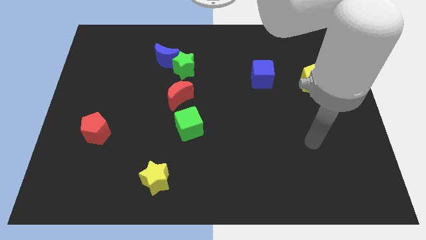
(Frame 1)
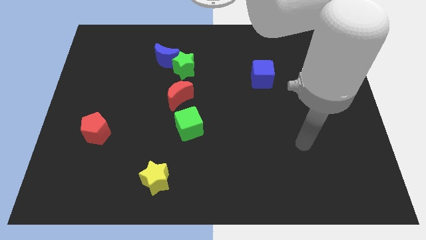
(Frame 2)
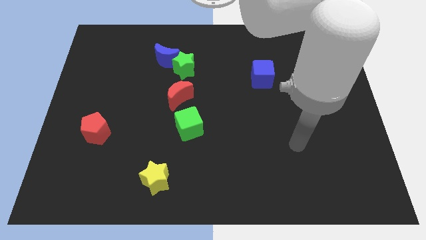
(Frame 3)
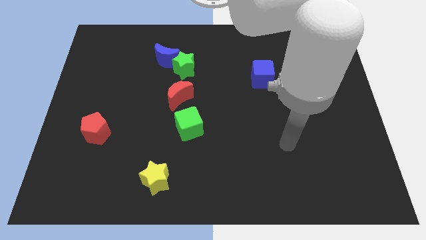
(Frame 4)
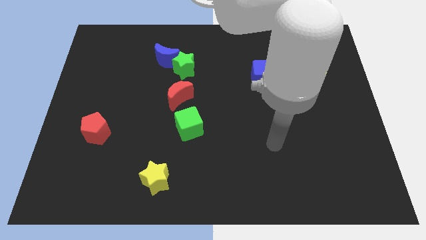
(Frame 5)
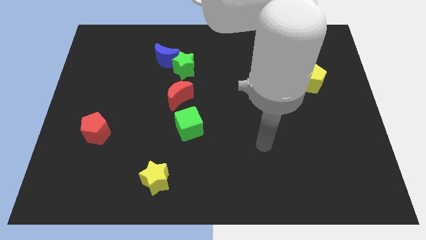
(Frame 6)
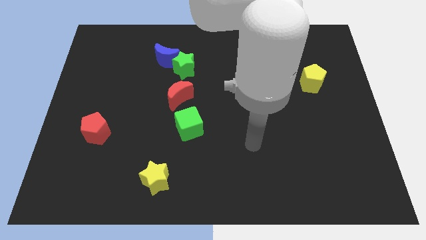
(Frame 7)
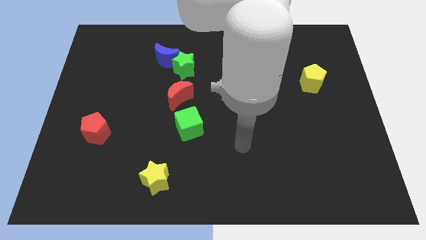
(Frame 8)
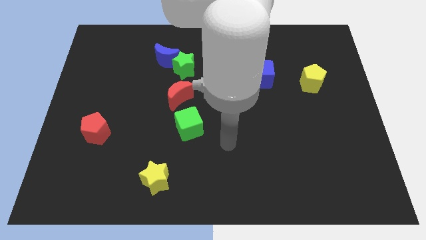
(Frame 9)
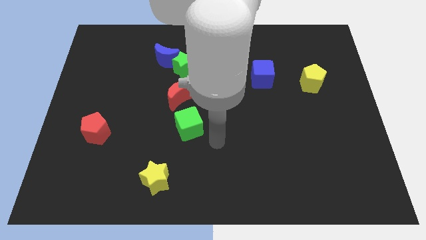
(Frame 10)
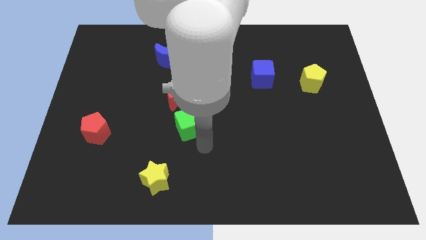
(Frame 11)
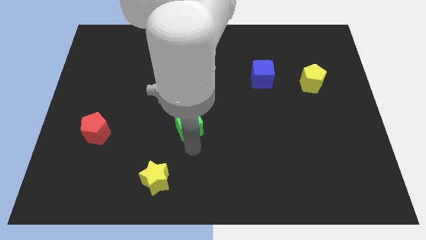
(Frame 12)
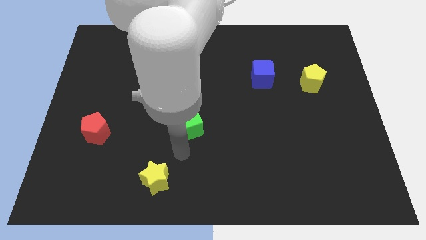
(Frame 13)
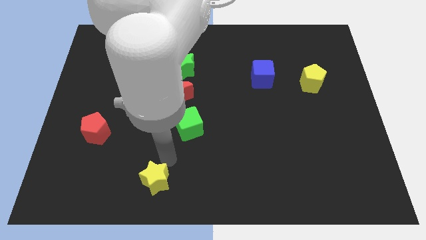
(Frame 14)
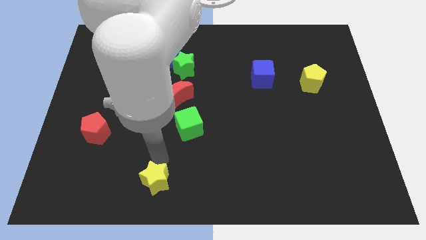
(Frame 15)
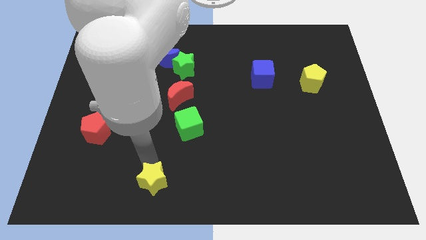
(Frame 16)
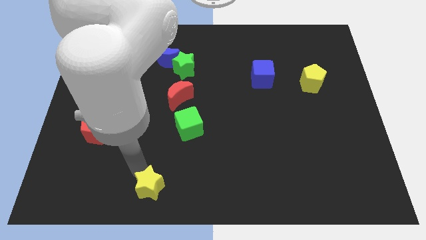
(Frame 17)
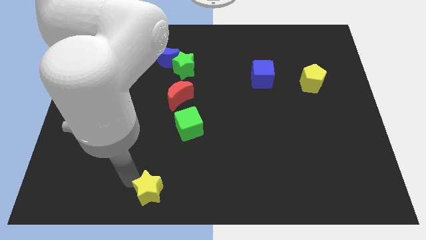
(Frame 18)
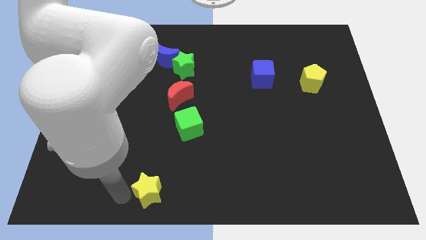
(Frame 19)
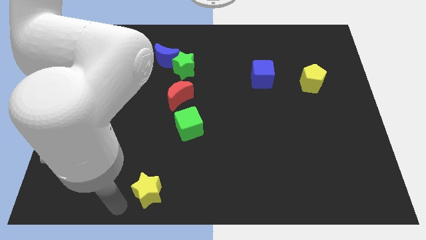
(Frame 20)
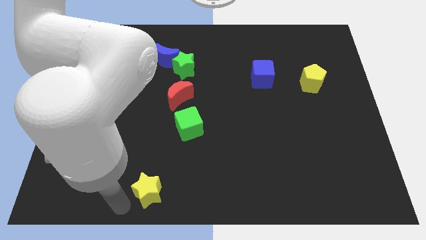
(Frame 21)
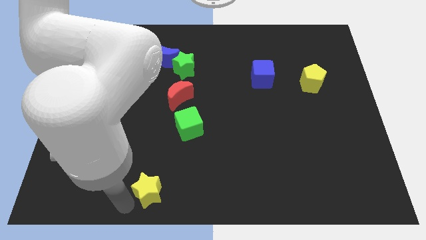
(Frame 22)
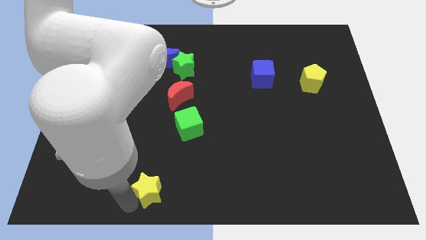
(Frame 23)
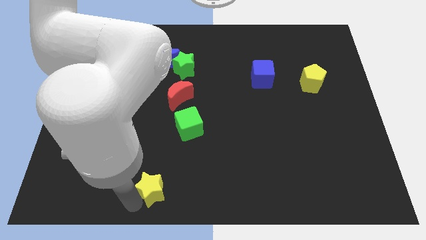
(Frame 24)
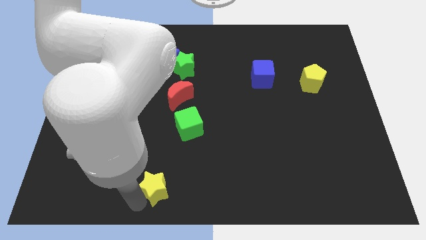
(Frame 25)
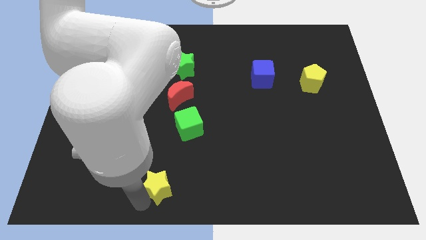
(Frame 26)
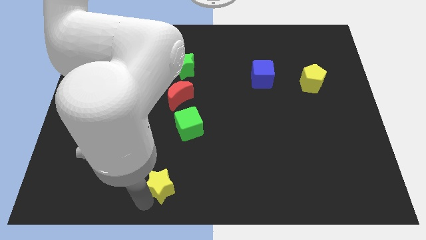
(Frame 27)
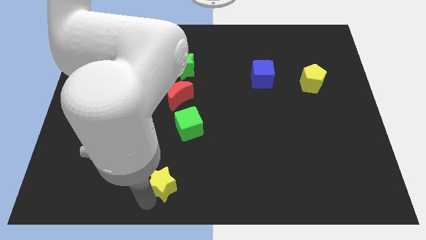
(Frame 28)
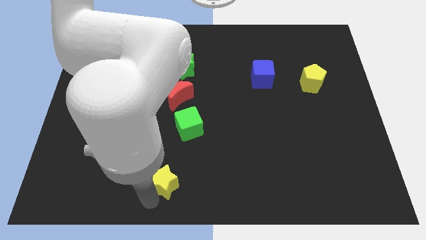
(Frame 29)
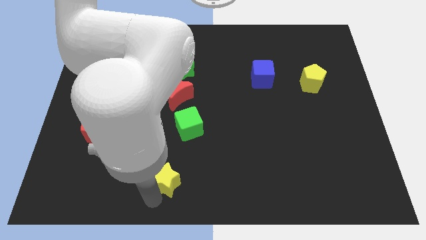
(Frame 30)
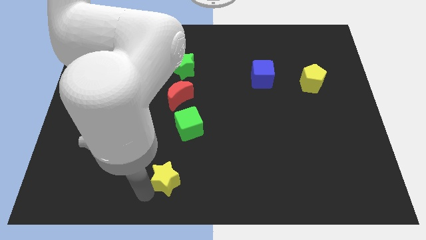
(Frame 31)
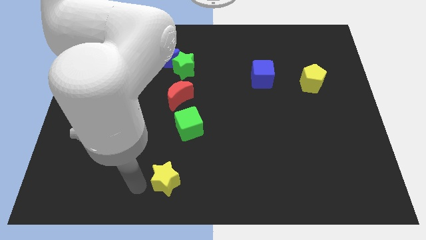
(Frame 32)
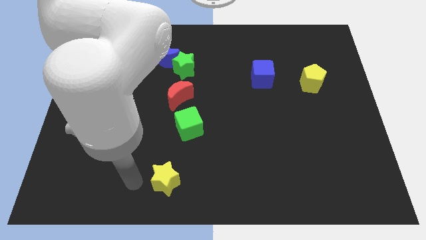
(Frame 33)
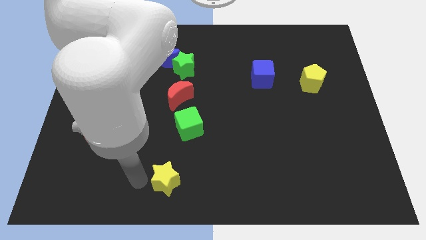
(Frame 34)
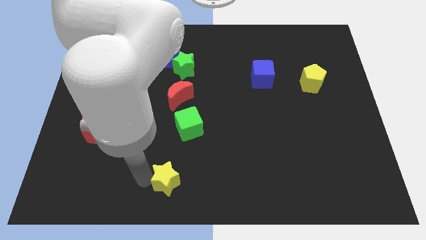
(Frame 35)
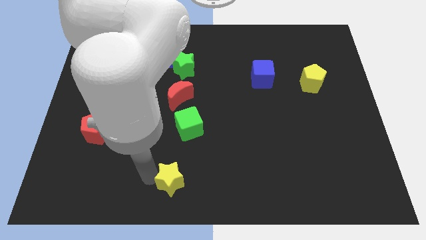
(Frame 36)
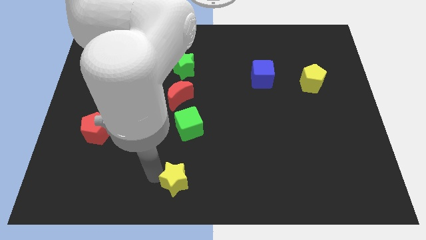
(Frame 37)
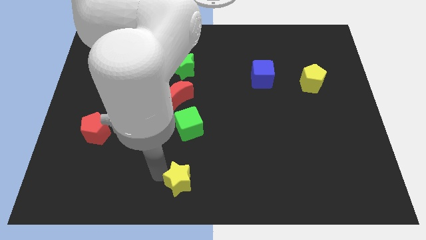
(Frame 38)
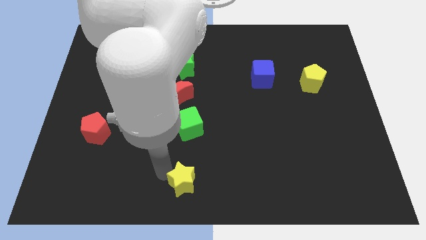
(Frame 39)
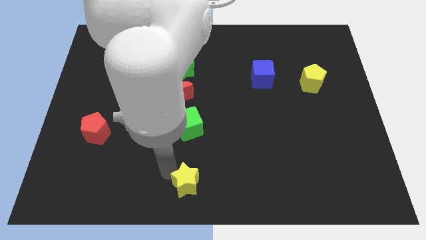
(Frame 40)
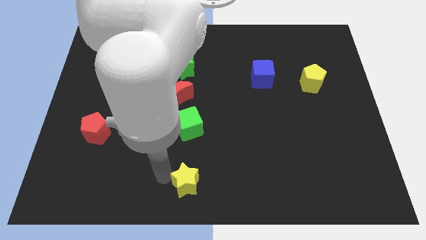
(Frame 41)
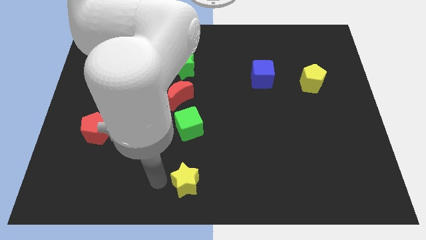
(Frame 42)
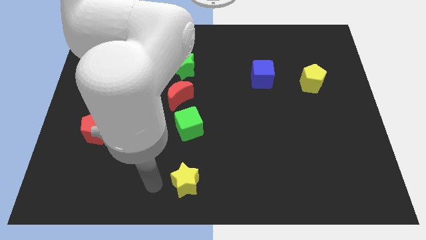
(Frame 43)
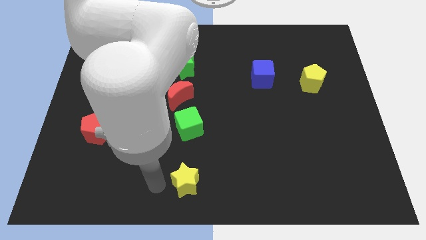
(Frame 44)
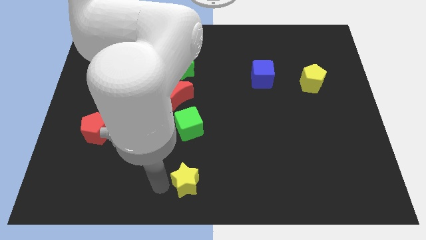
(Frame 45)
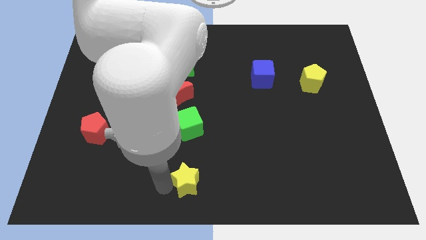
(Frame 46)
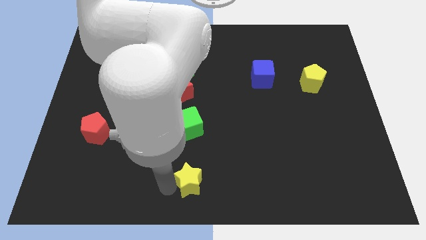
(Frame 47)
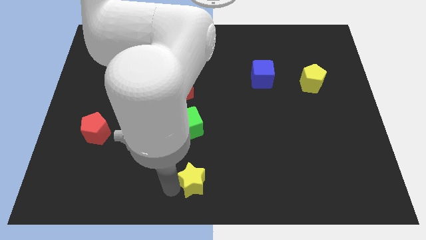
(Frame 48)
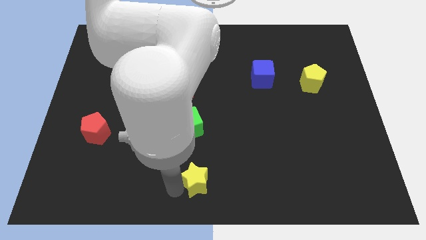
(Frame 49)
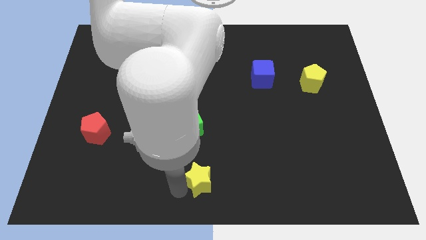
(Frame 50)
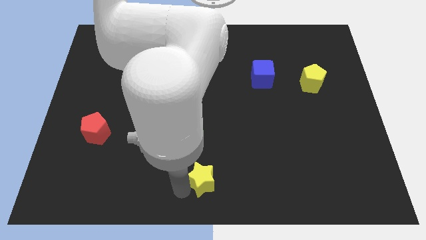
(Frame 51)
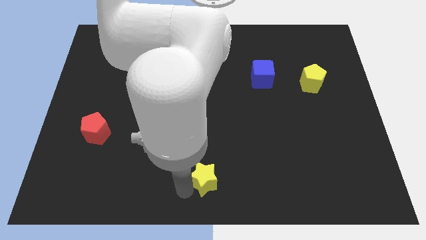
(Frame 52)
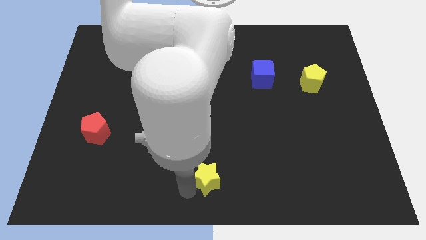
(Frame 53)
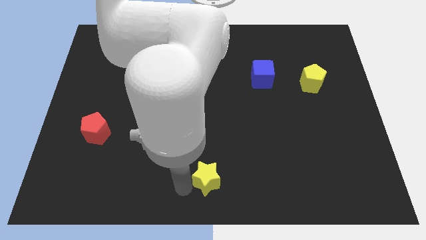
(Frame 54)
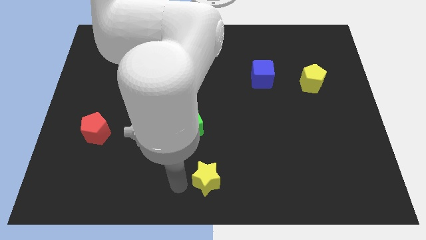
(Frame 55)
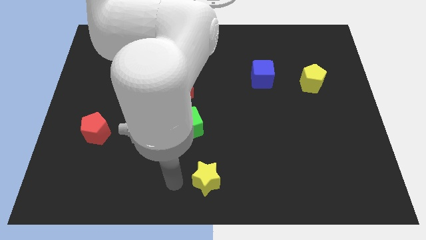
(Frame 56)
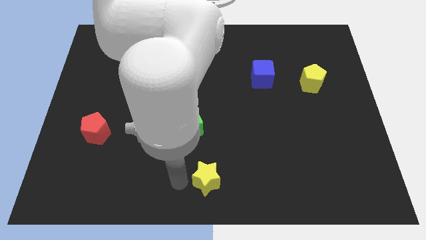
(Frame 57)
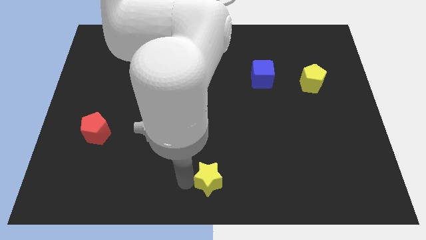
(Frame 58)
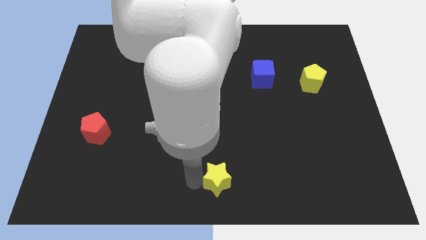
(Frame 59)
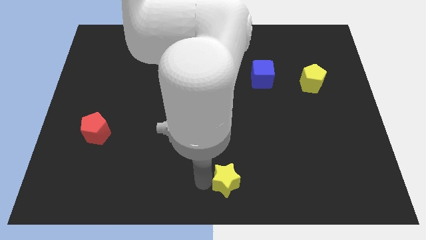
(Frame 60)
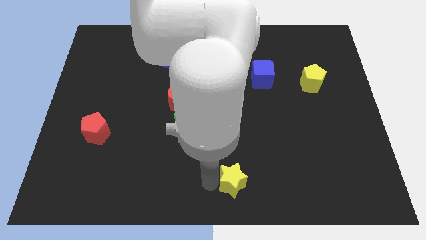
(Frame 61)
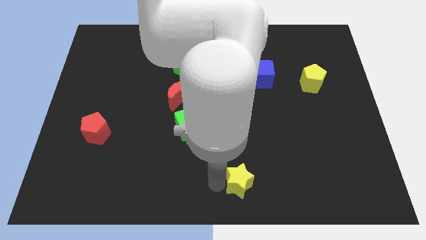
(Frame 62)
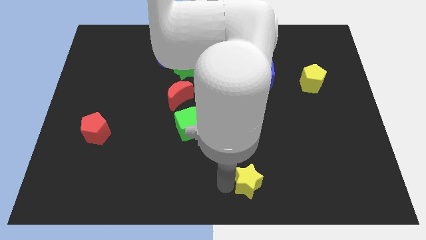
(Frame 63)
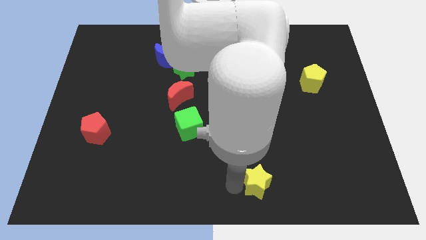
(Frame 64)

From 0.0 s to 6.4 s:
move the yellow star to the right

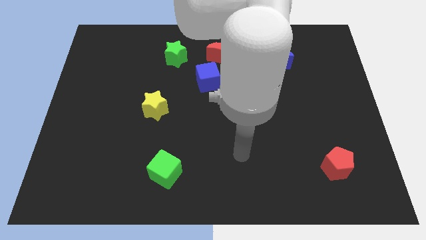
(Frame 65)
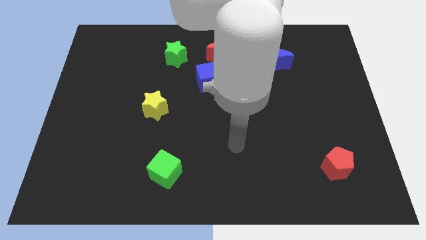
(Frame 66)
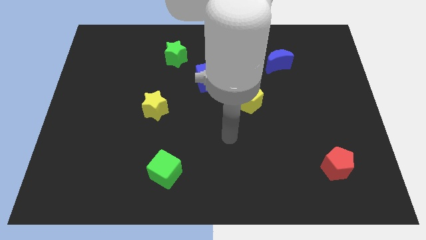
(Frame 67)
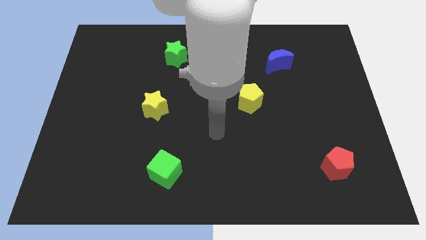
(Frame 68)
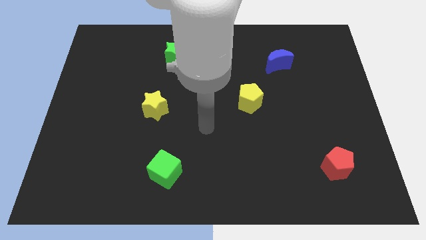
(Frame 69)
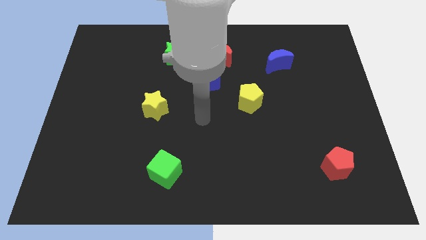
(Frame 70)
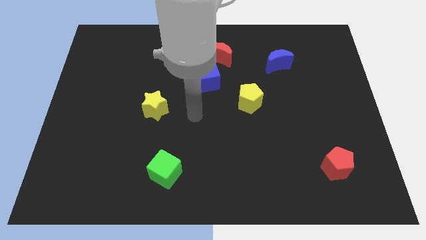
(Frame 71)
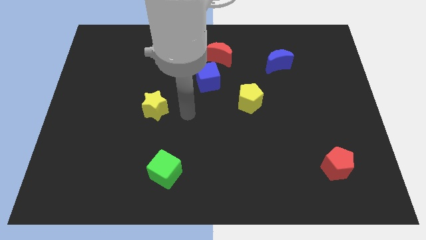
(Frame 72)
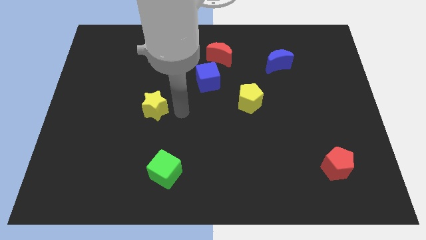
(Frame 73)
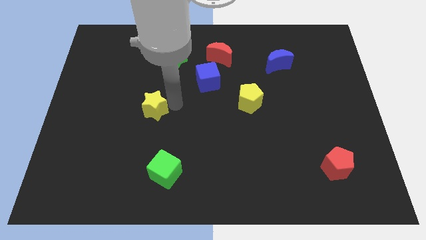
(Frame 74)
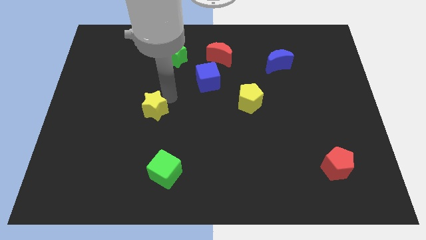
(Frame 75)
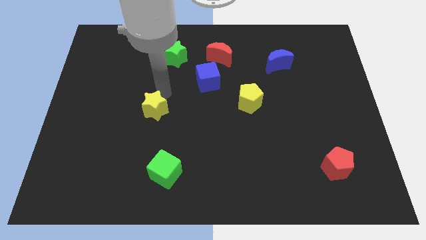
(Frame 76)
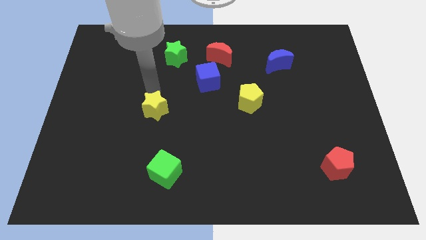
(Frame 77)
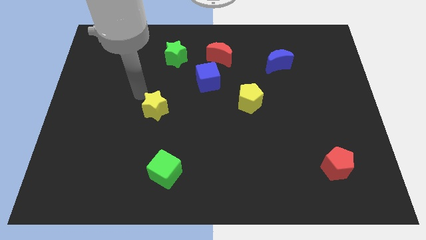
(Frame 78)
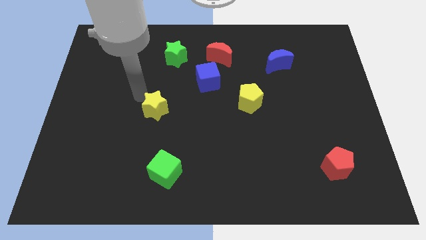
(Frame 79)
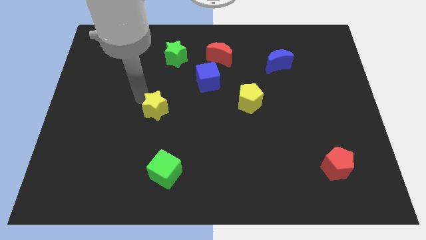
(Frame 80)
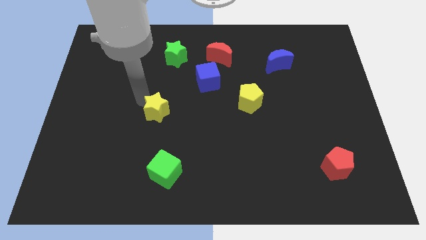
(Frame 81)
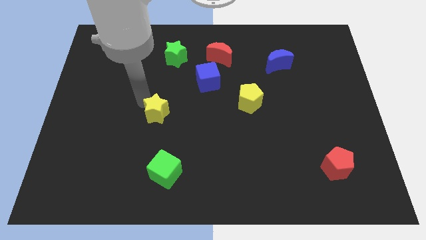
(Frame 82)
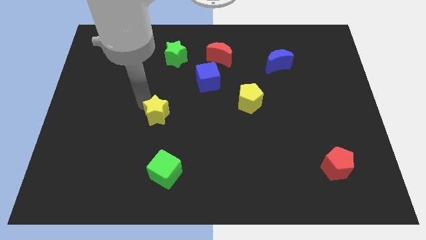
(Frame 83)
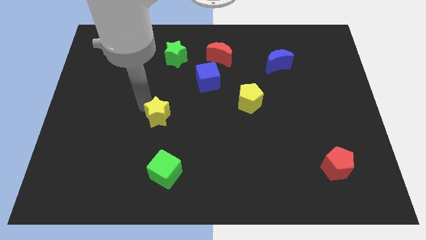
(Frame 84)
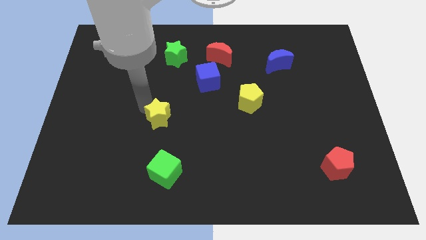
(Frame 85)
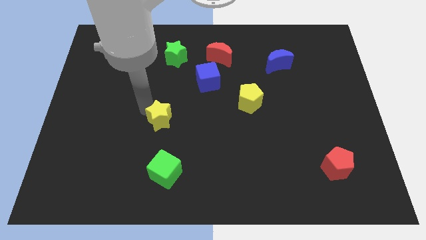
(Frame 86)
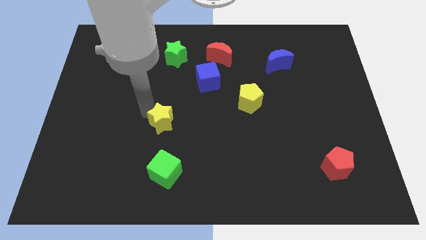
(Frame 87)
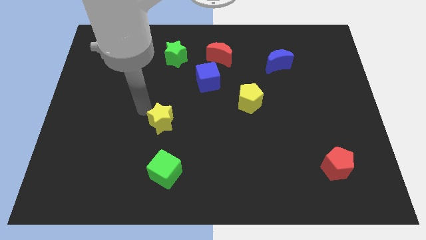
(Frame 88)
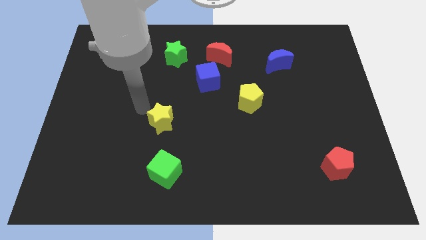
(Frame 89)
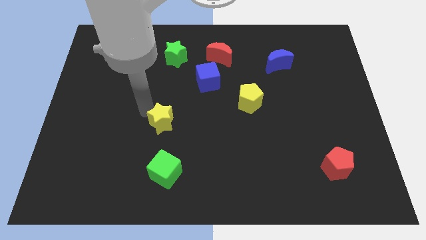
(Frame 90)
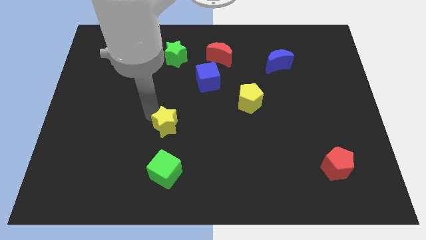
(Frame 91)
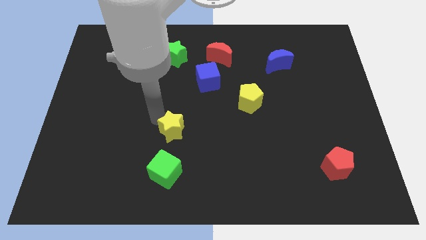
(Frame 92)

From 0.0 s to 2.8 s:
slightly move the yellow star diagonally downwards and to the right
